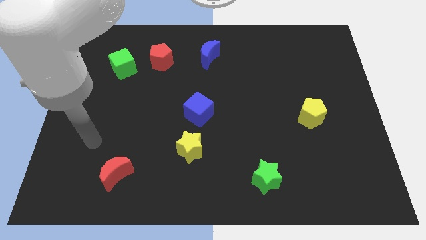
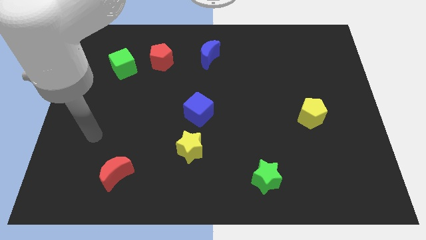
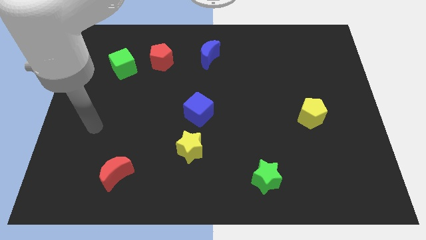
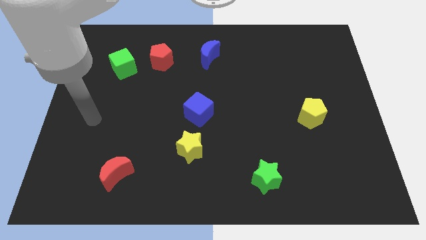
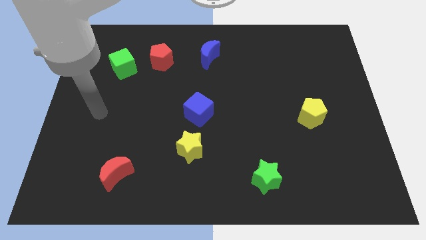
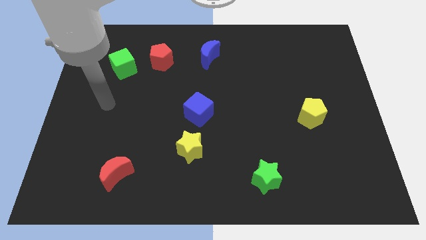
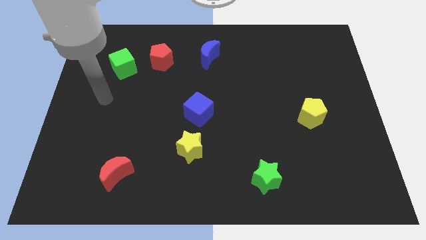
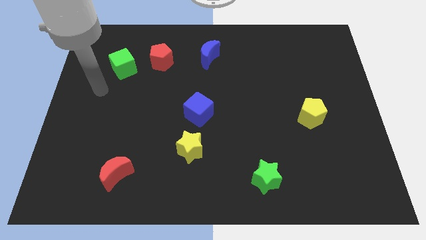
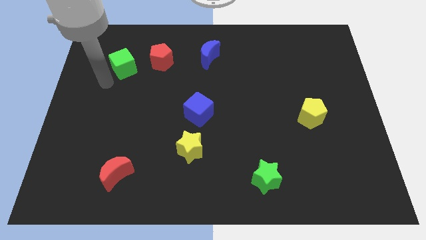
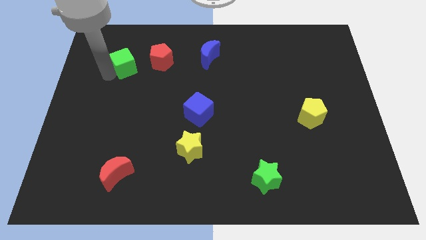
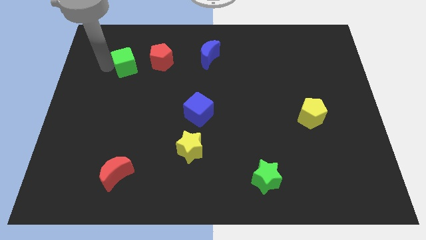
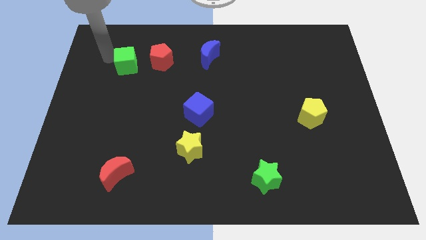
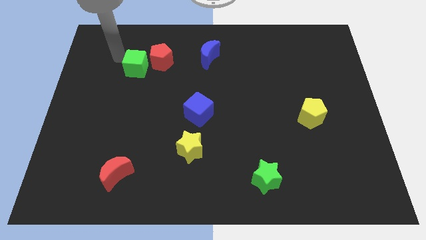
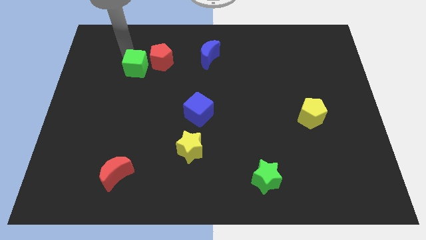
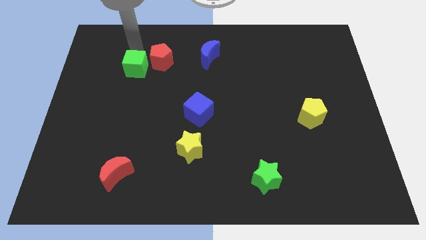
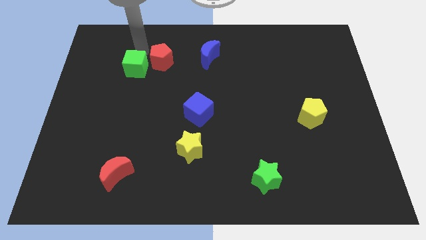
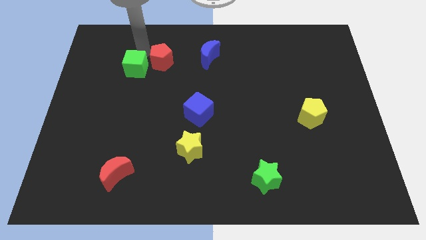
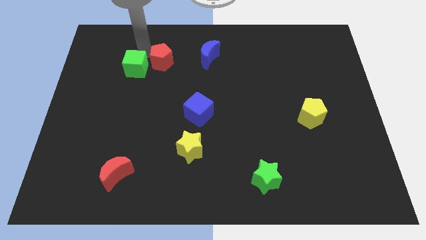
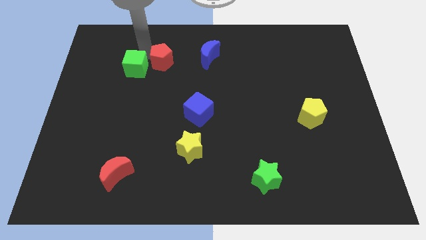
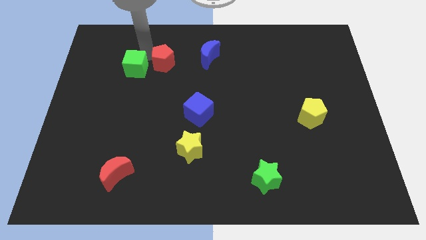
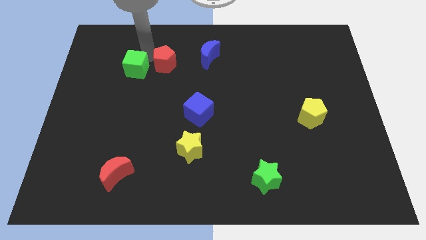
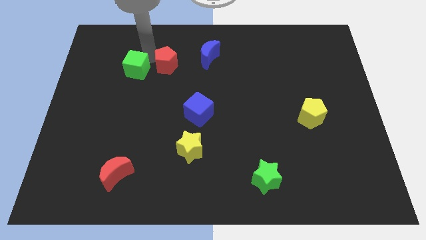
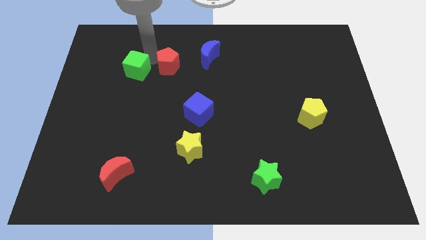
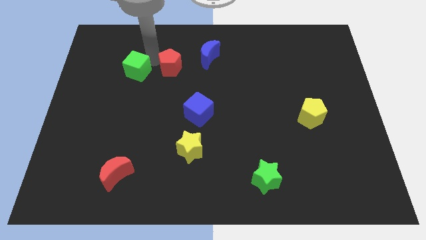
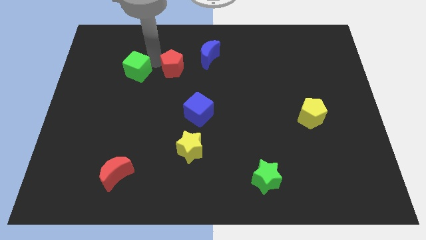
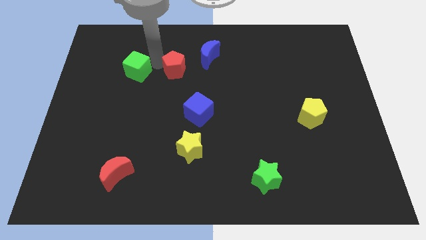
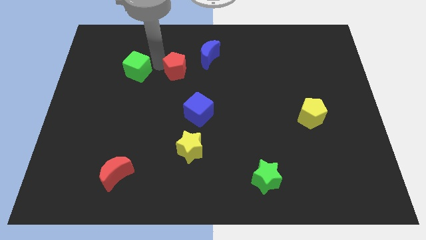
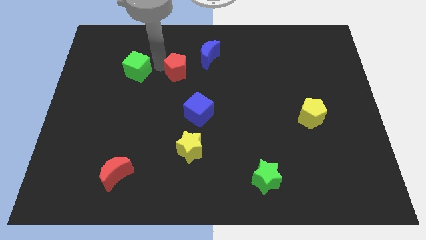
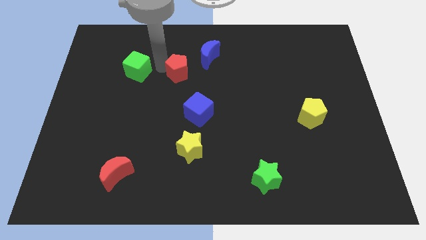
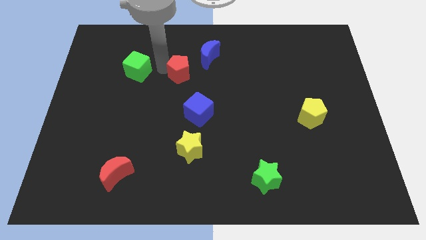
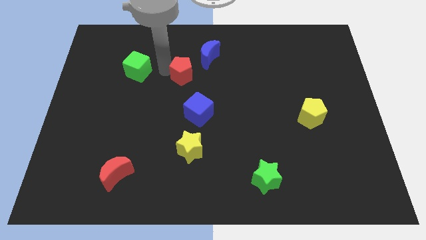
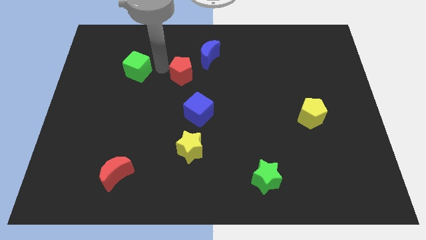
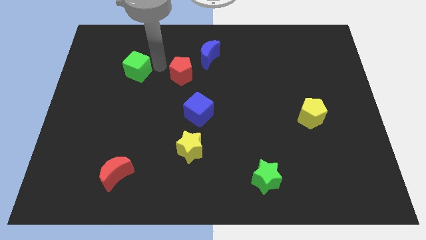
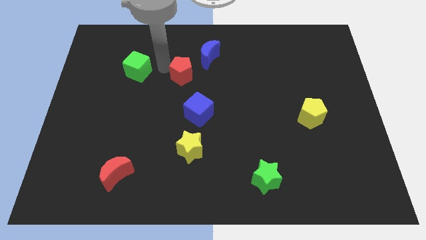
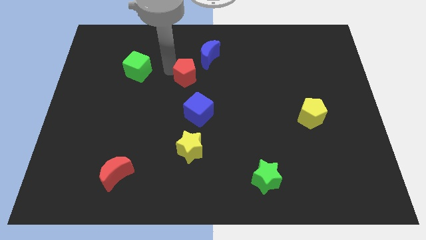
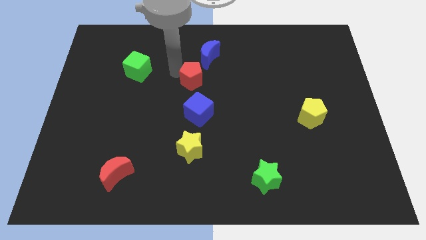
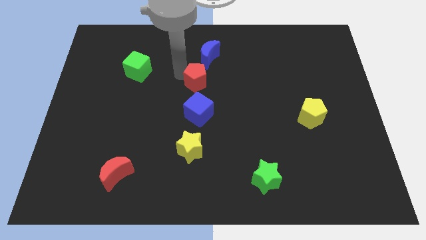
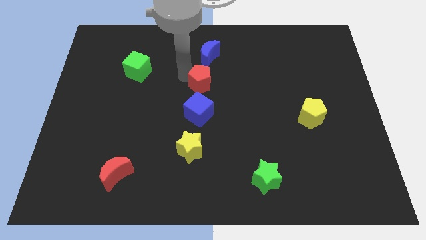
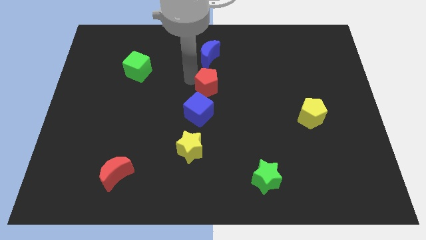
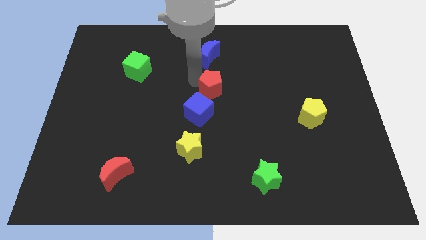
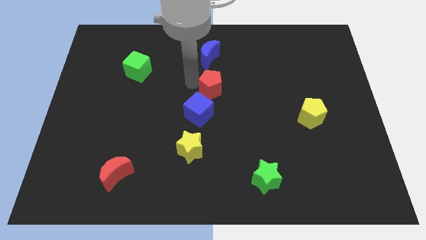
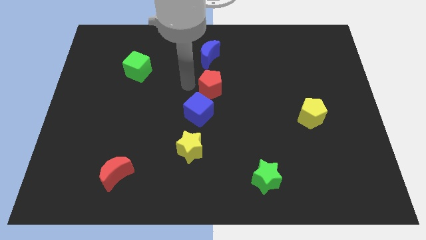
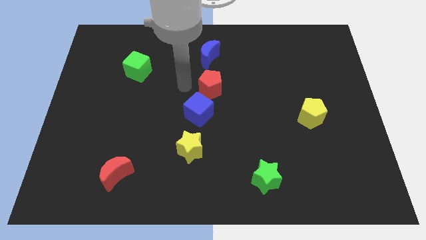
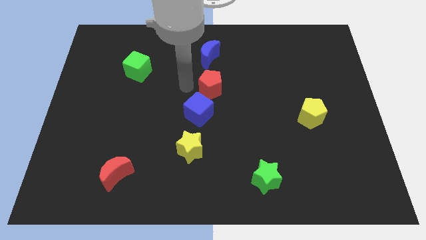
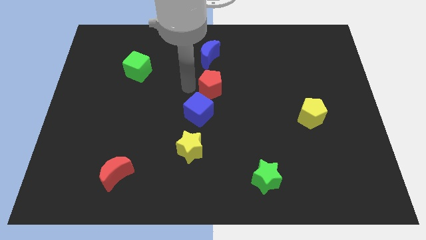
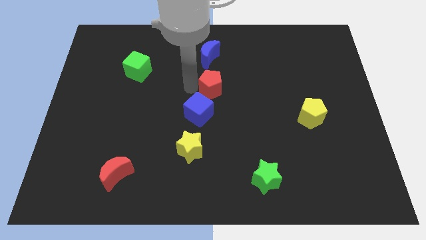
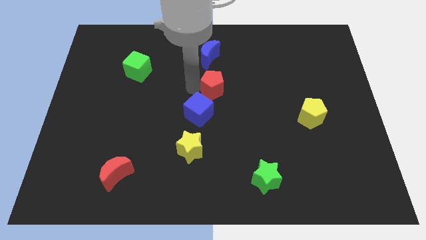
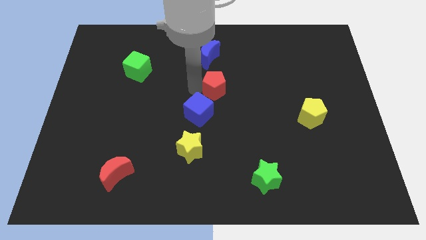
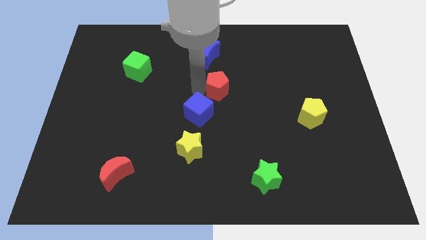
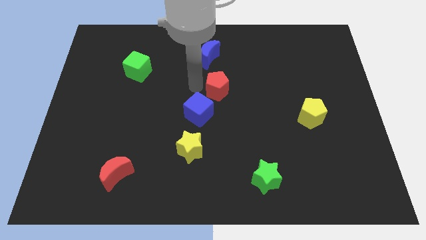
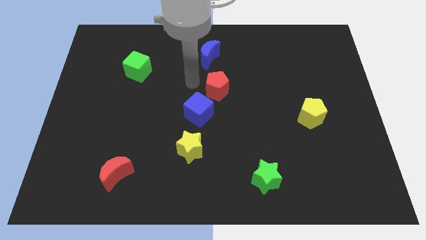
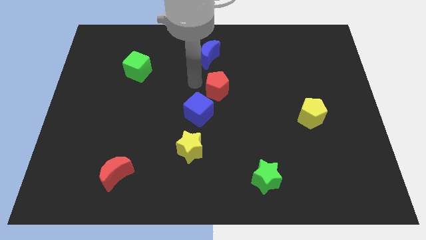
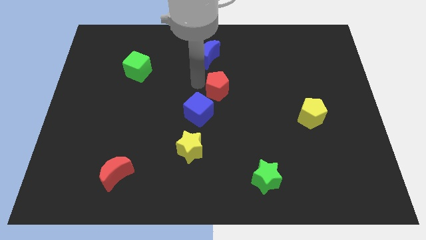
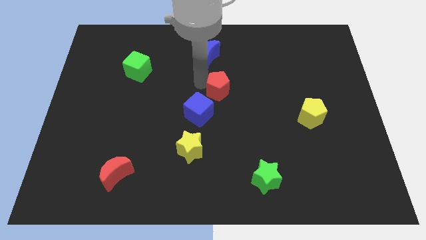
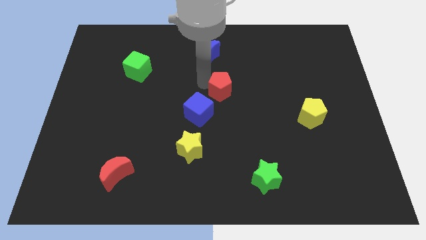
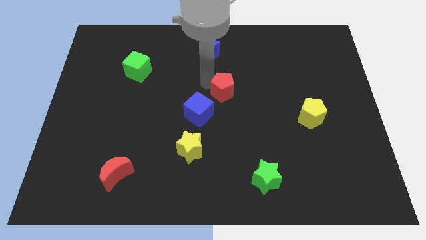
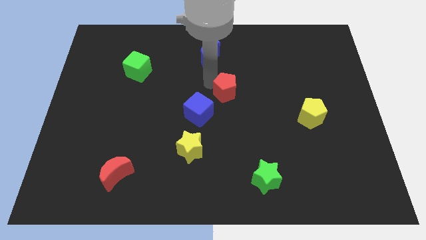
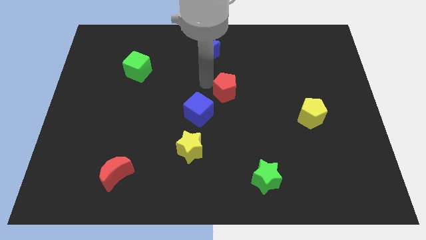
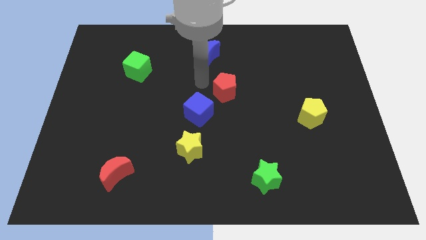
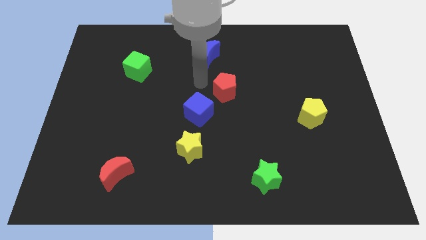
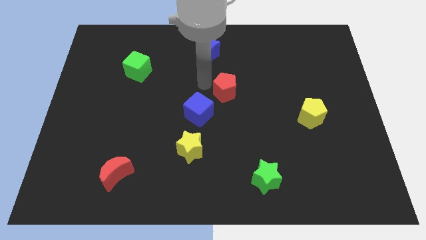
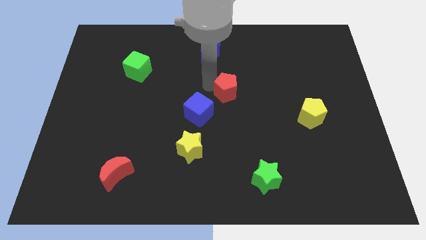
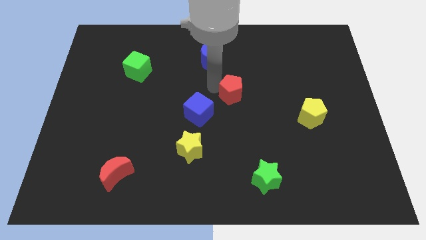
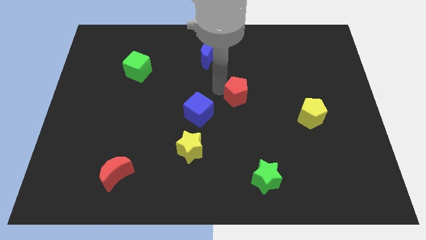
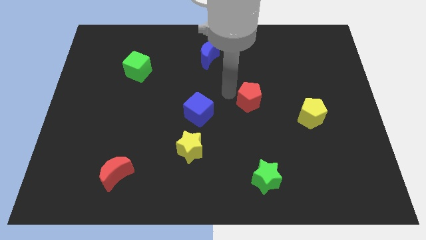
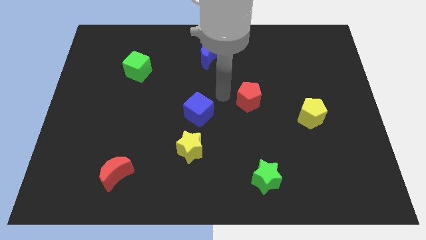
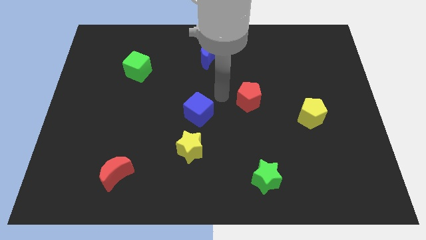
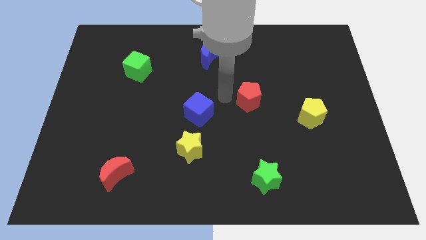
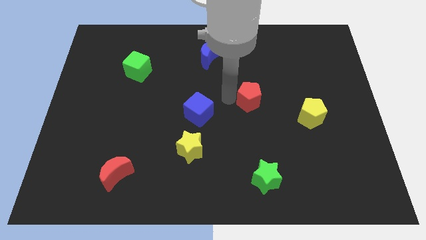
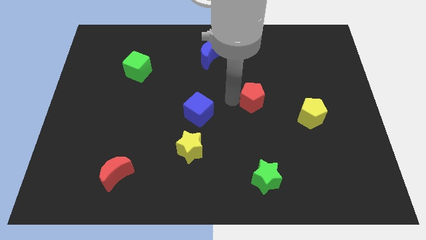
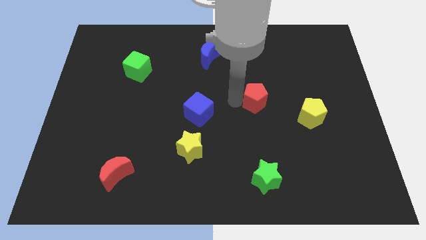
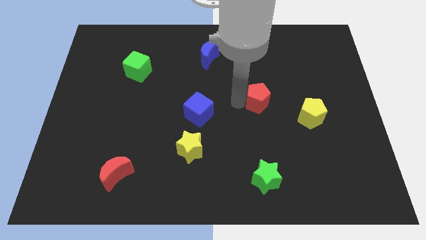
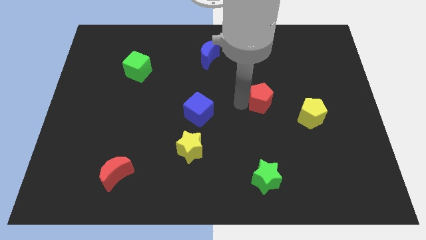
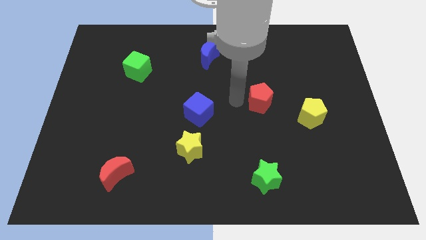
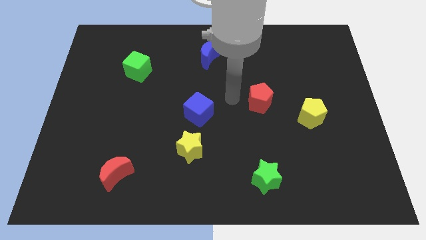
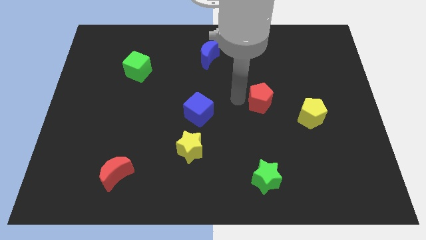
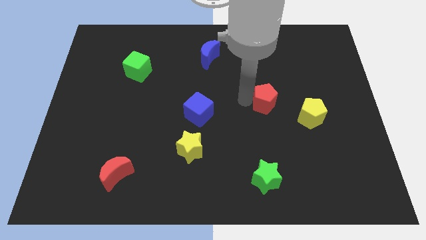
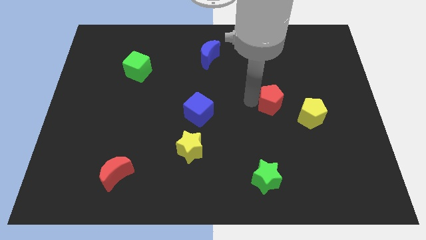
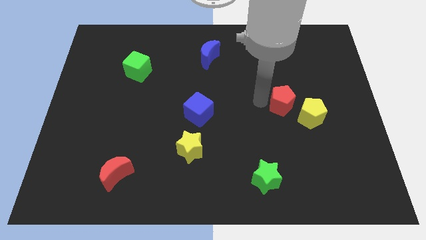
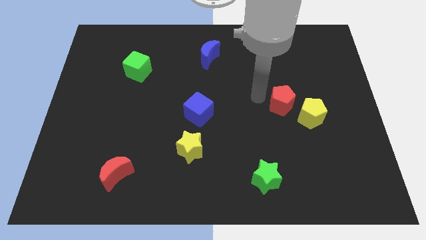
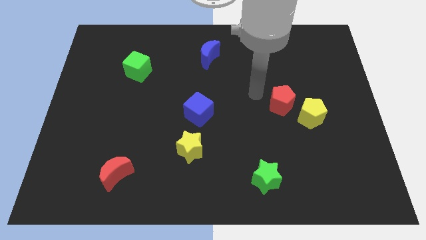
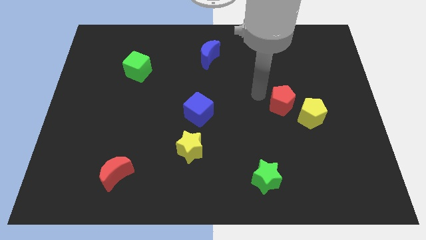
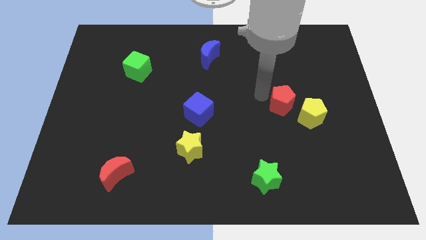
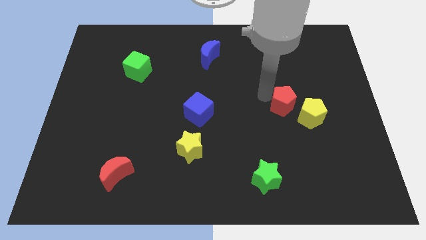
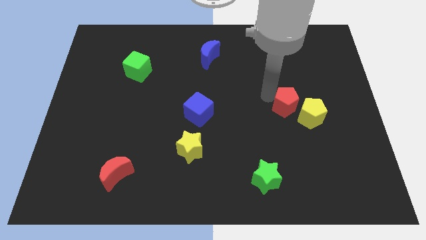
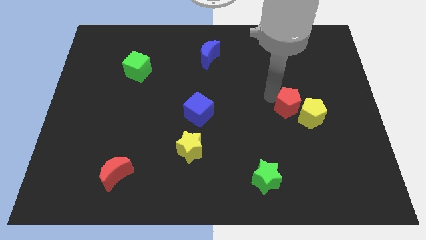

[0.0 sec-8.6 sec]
put the red pentagon next to the yellow pentagon
